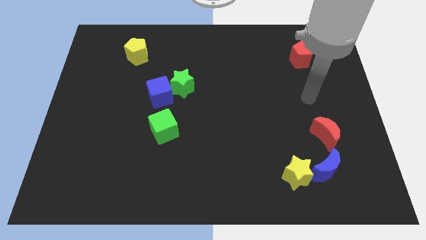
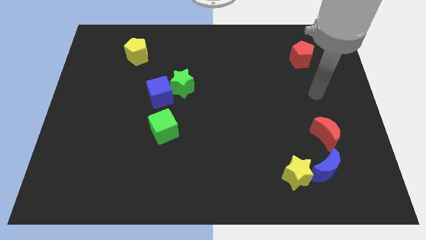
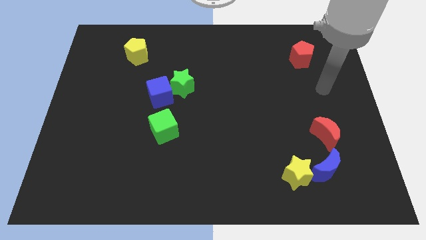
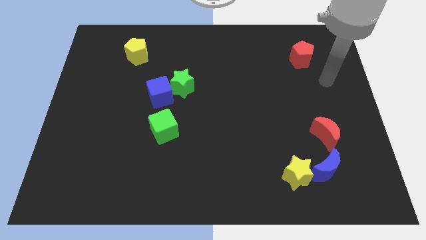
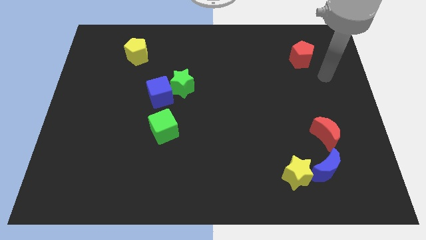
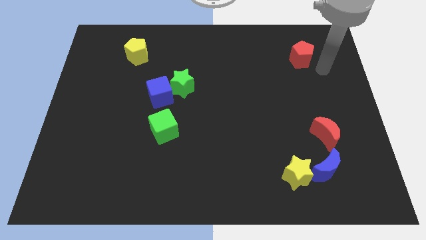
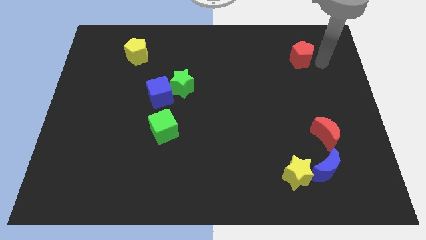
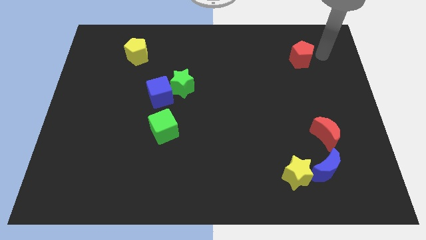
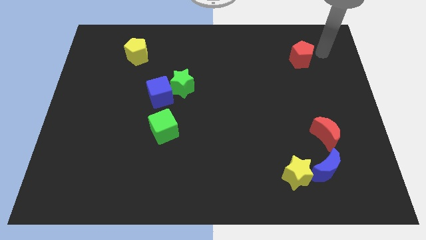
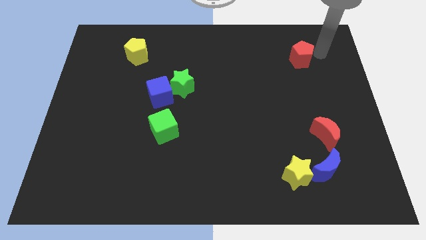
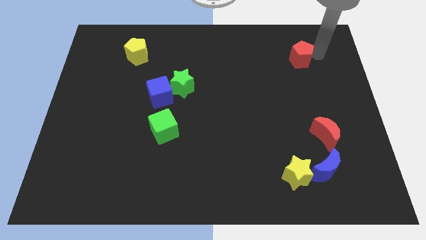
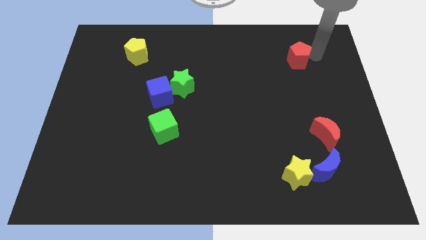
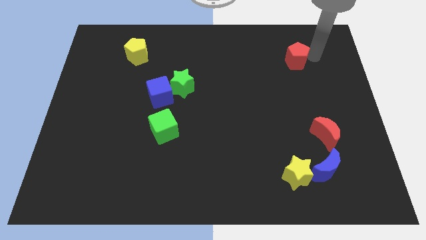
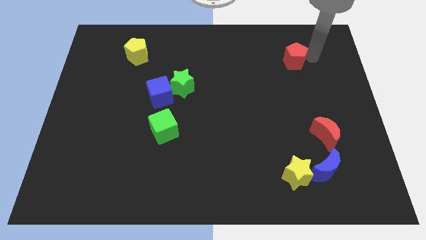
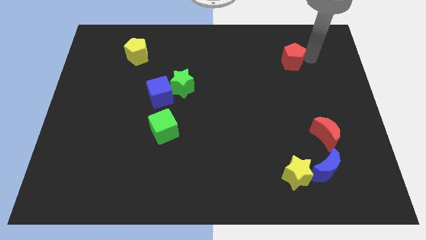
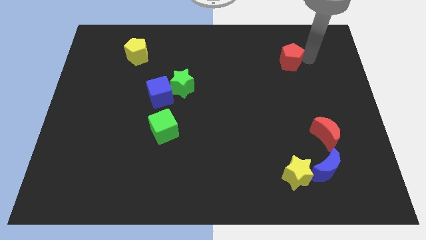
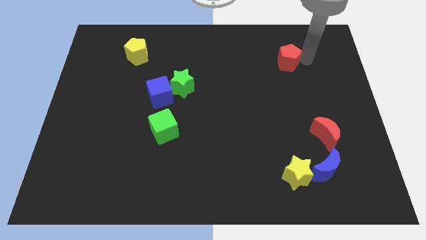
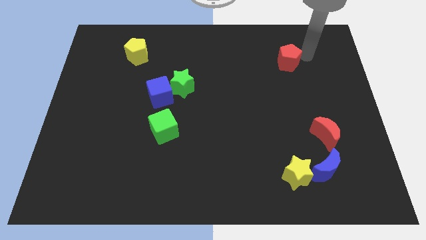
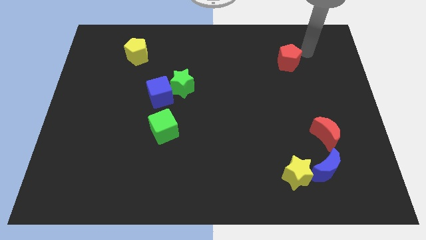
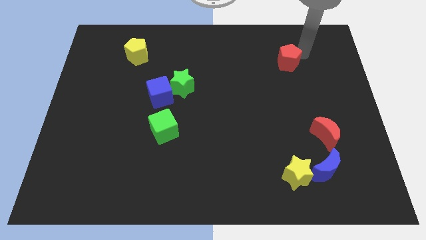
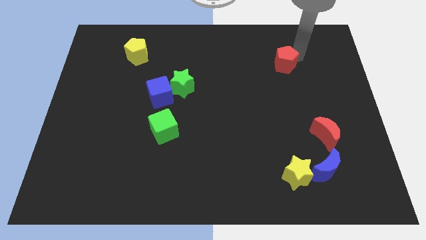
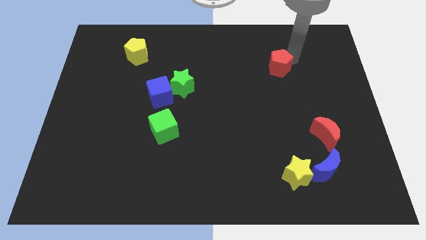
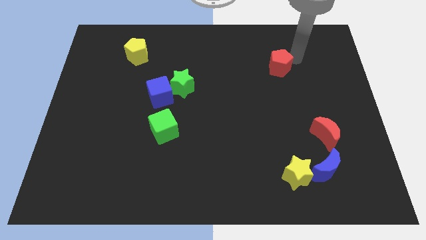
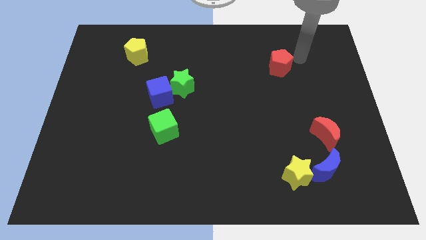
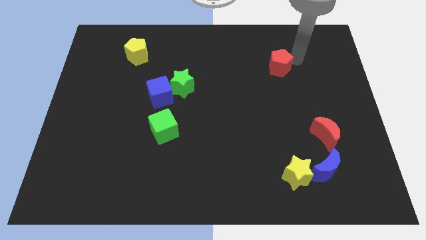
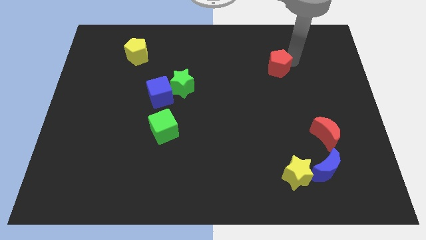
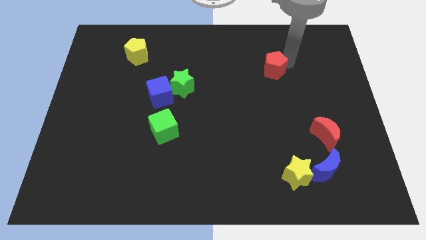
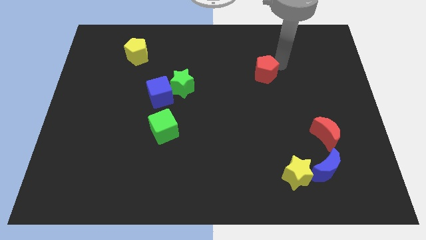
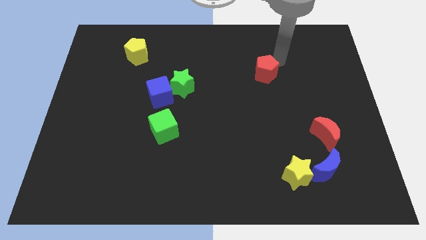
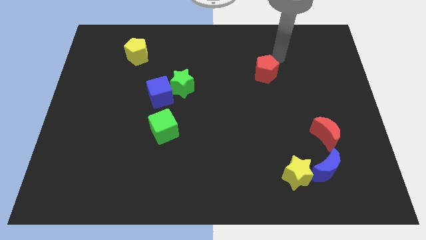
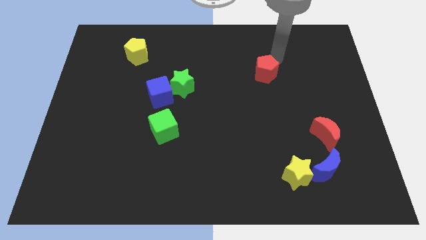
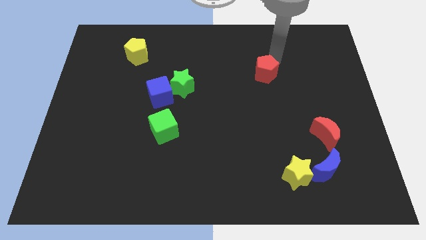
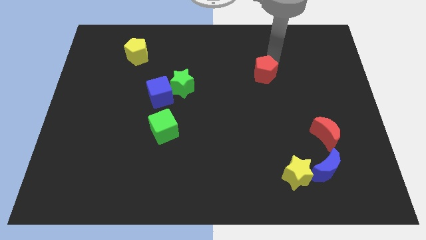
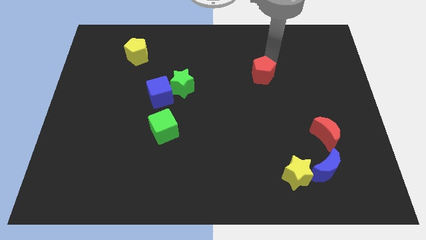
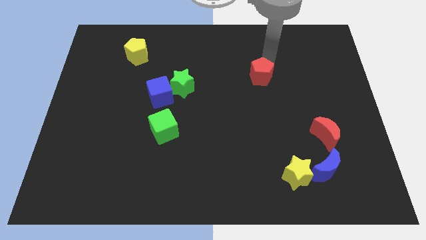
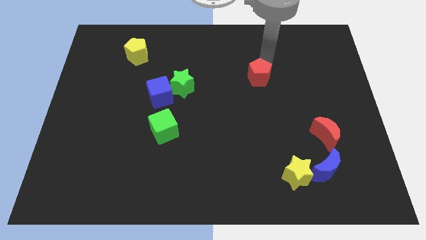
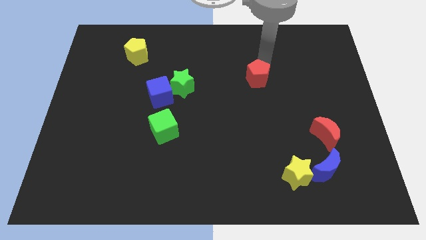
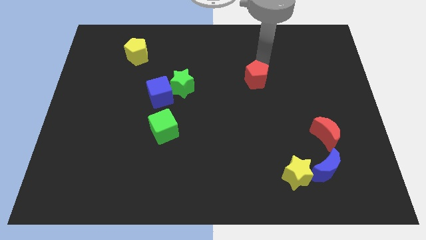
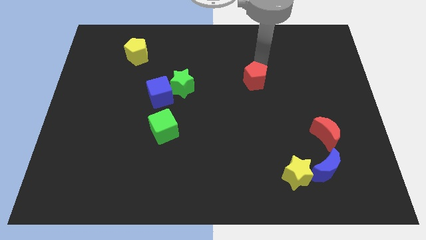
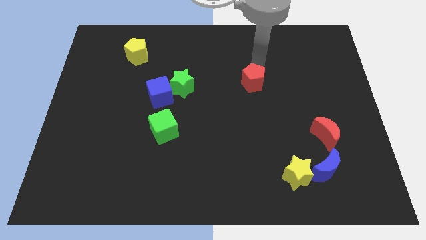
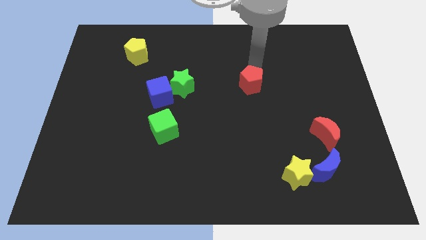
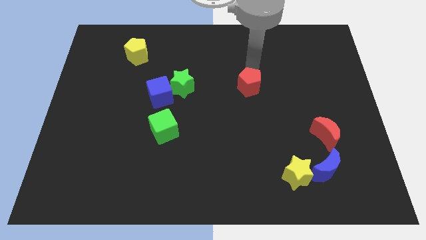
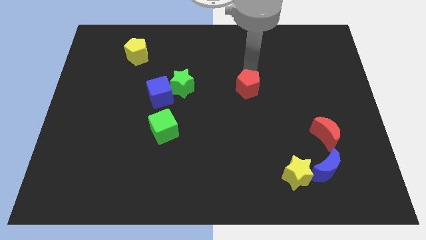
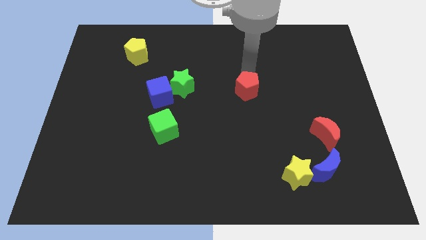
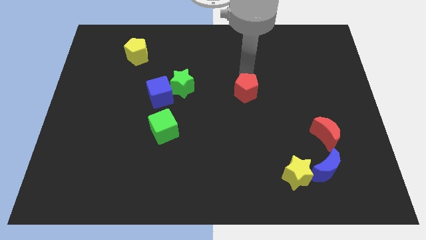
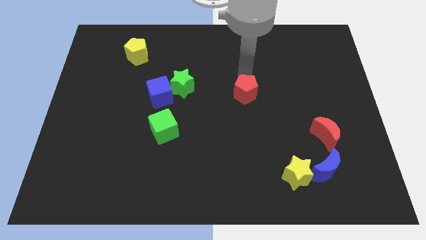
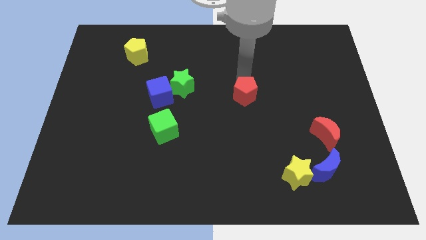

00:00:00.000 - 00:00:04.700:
push the red pentagon downwards and then to the left

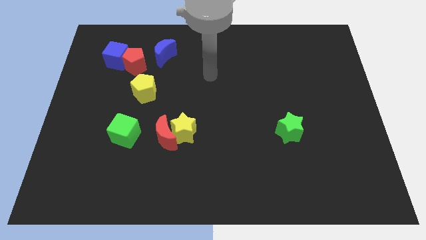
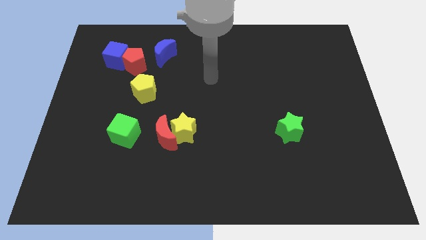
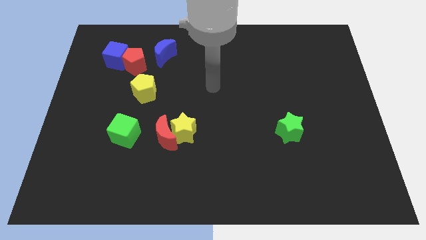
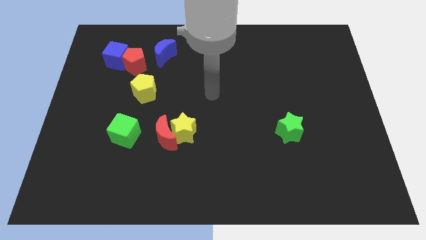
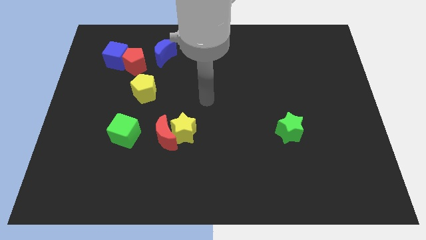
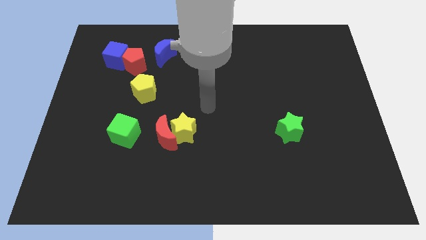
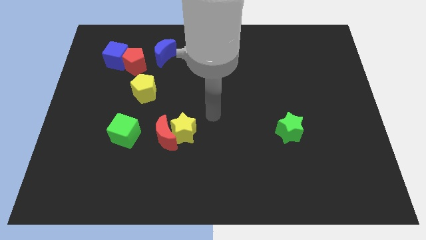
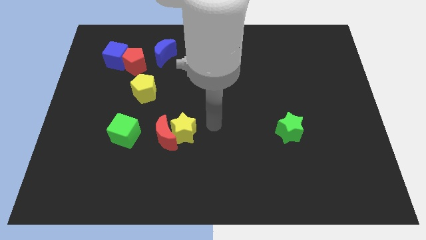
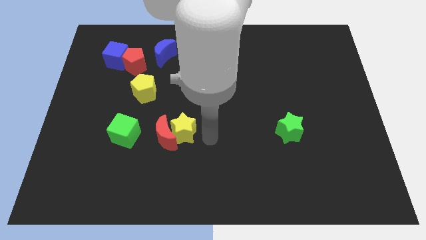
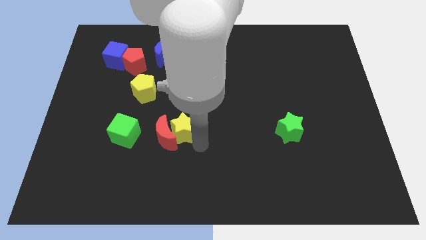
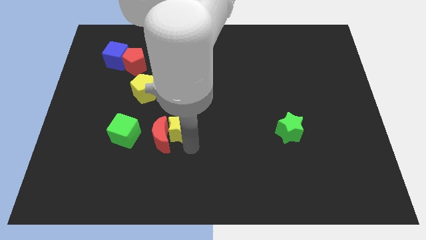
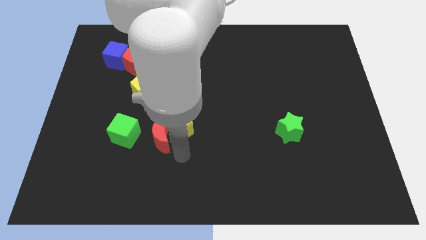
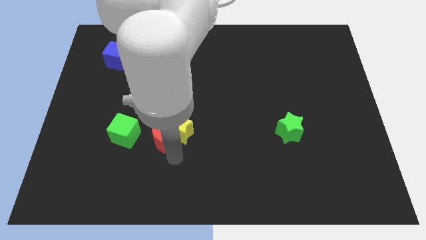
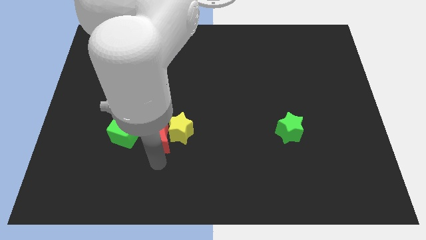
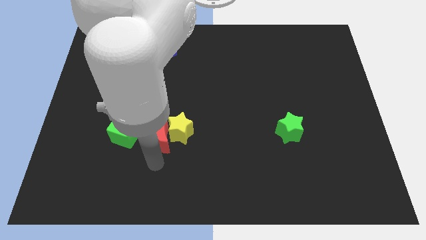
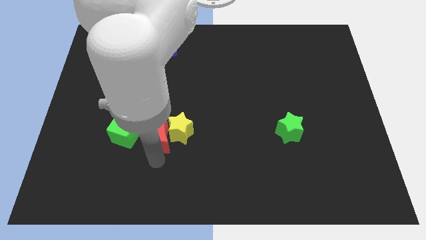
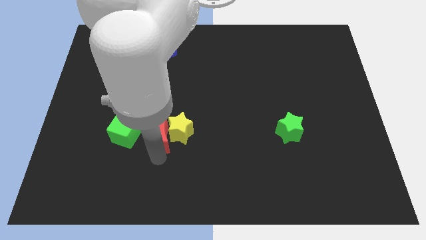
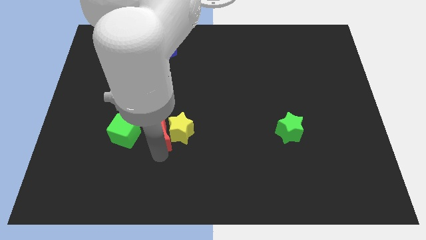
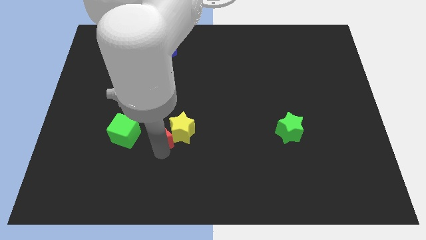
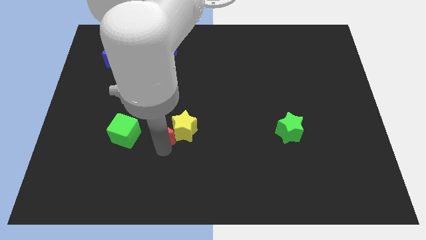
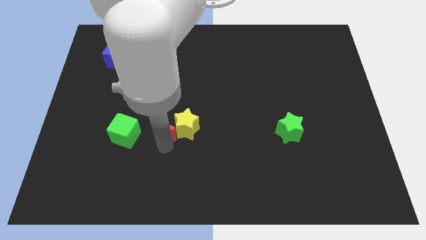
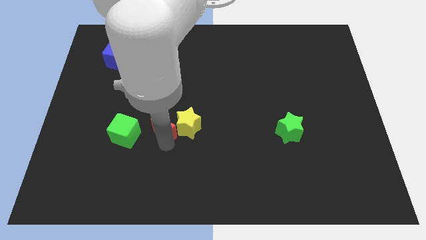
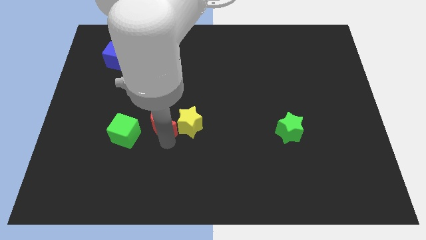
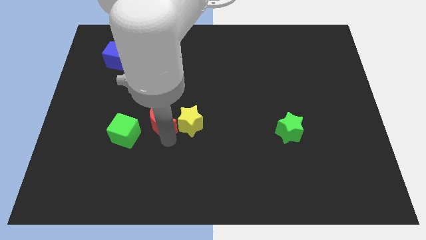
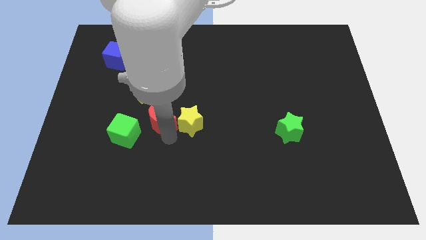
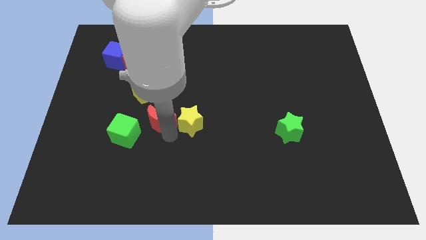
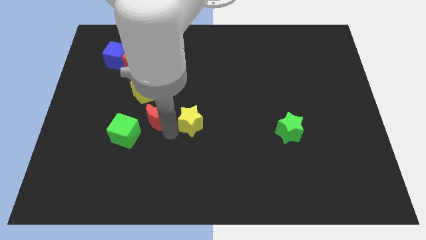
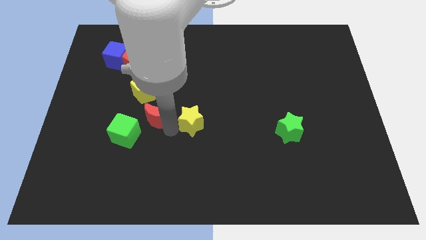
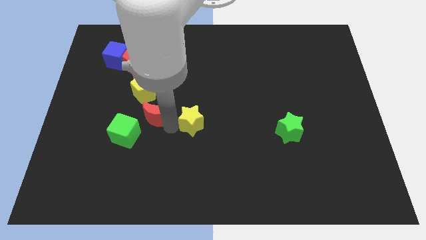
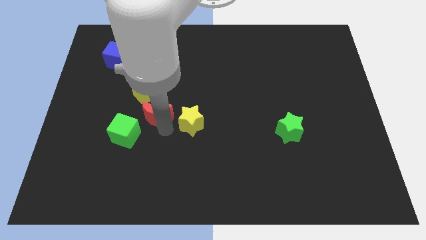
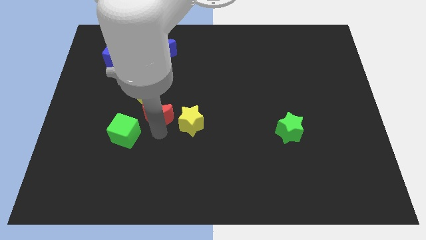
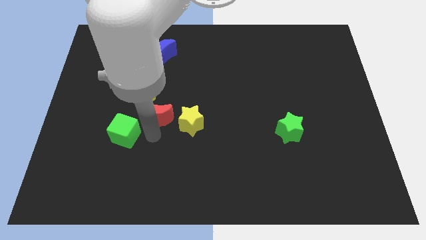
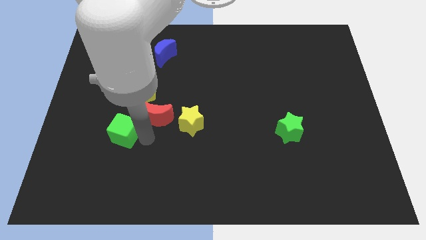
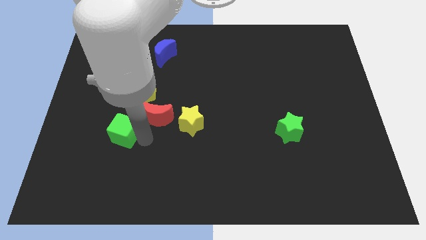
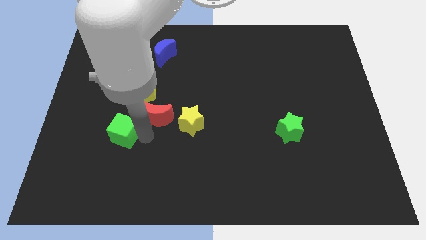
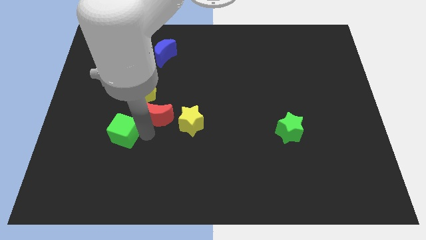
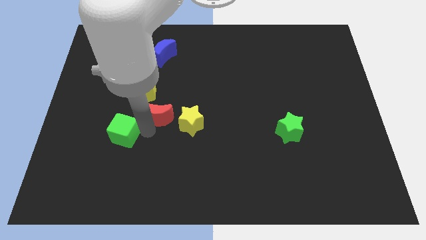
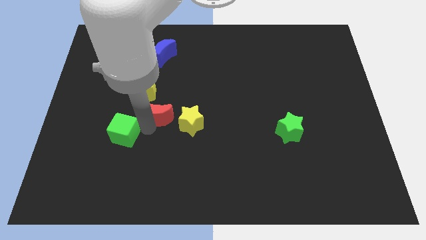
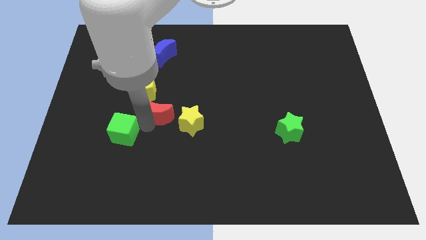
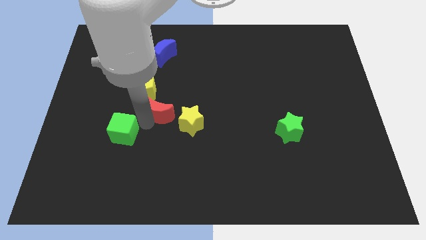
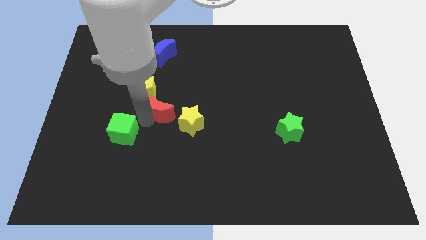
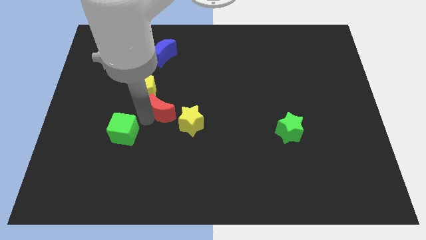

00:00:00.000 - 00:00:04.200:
slide the red moon up a bit
